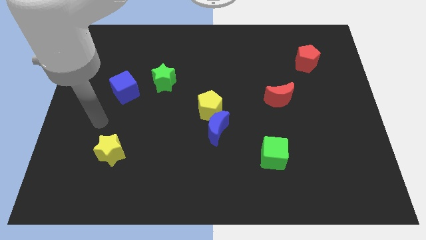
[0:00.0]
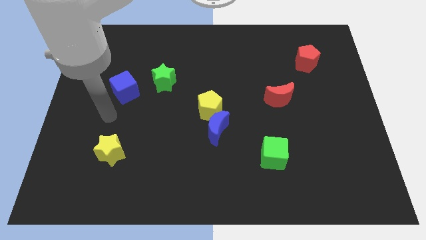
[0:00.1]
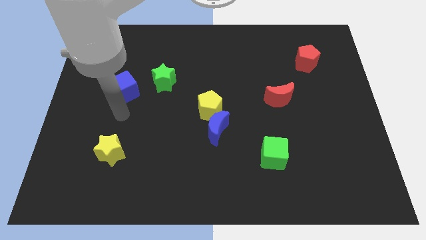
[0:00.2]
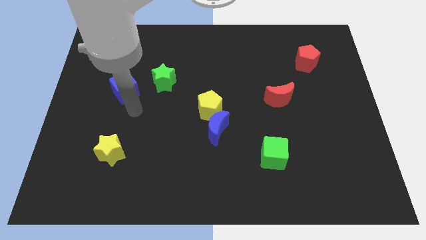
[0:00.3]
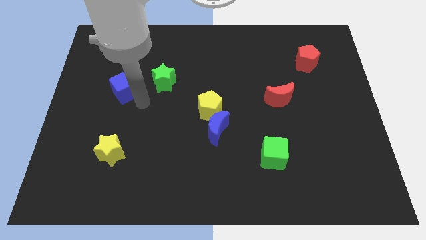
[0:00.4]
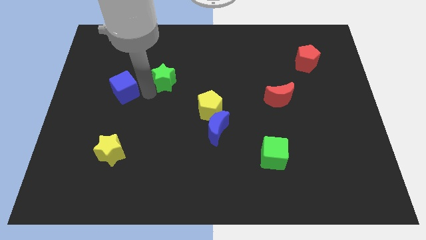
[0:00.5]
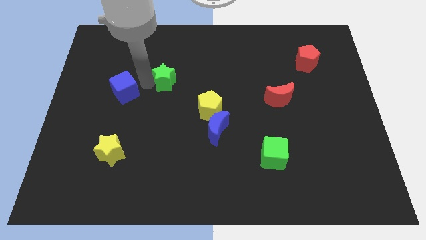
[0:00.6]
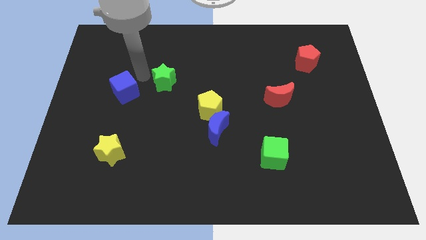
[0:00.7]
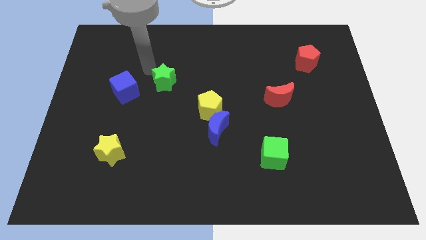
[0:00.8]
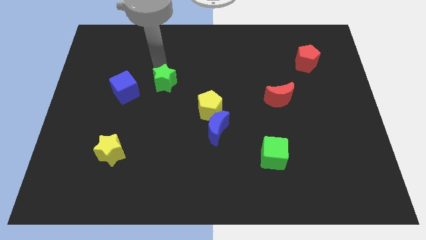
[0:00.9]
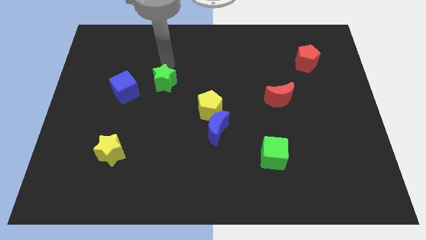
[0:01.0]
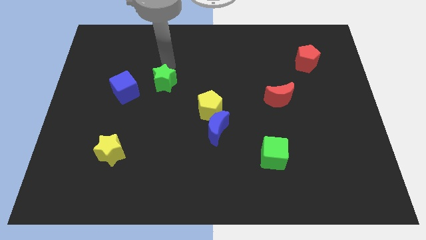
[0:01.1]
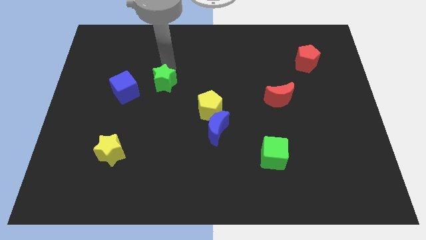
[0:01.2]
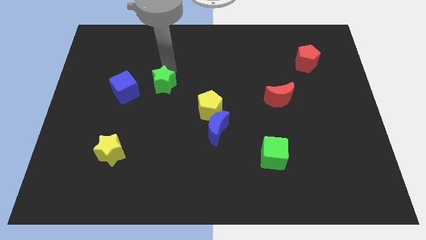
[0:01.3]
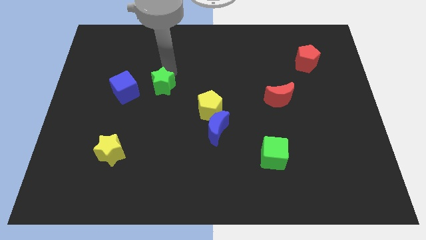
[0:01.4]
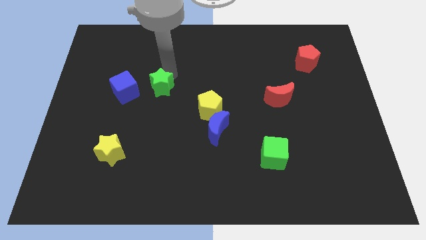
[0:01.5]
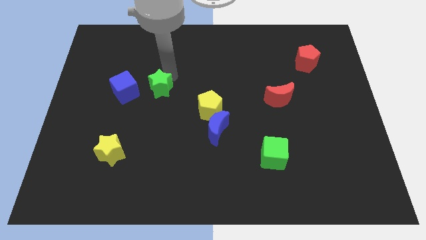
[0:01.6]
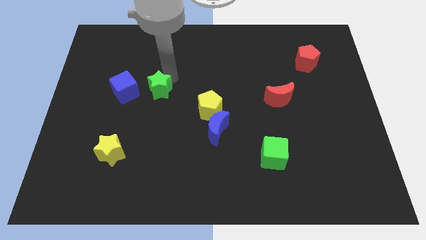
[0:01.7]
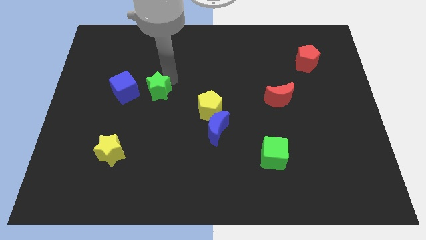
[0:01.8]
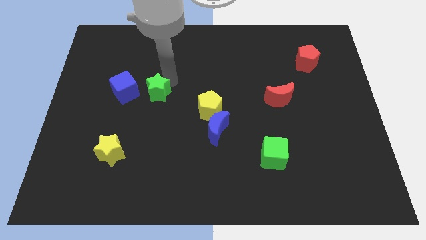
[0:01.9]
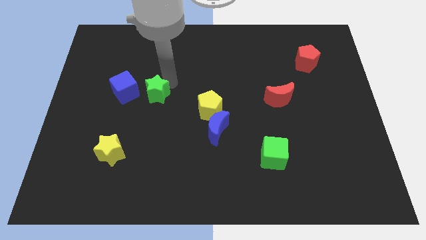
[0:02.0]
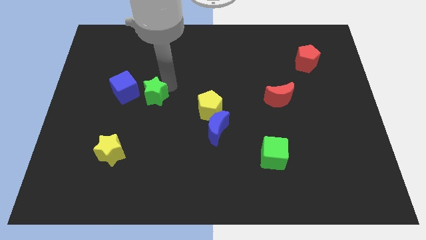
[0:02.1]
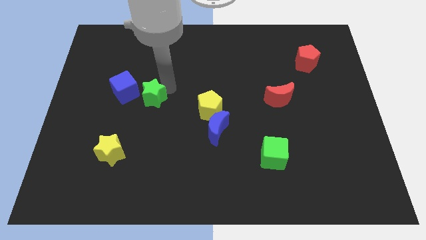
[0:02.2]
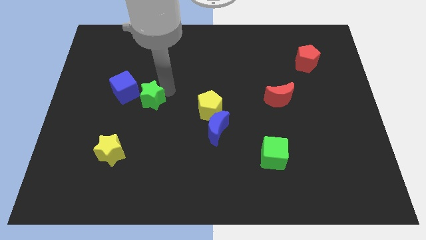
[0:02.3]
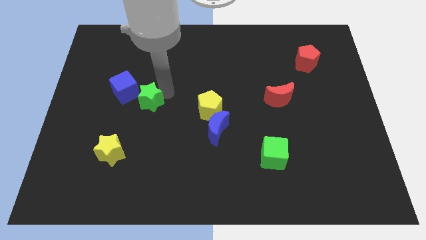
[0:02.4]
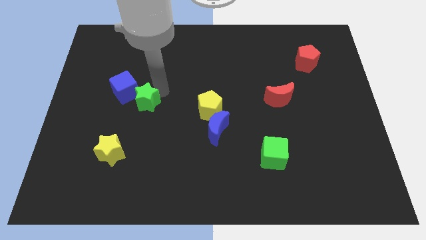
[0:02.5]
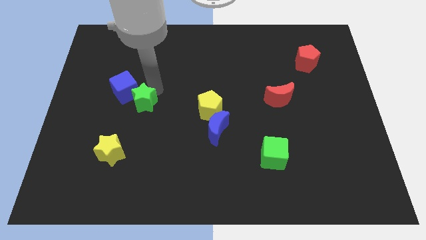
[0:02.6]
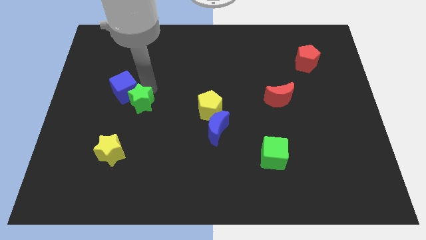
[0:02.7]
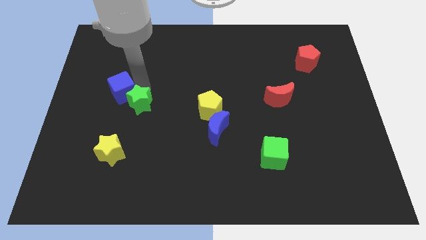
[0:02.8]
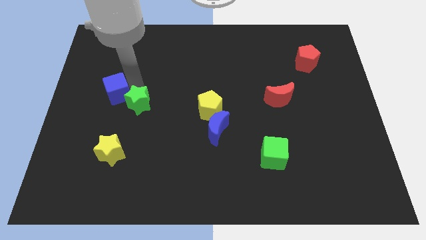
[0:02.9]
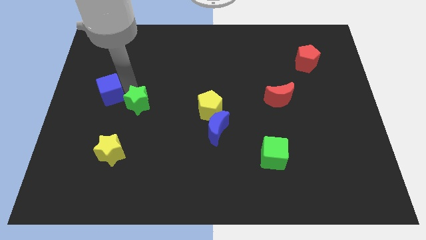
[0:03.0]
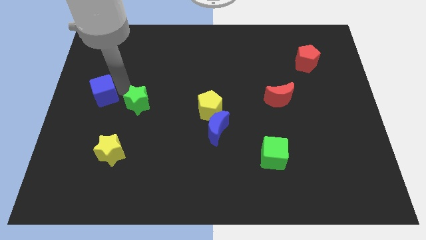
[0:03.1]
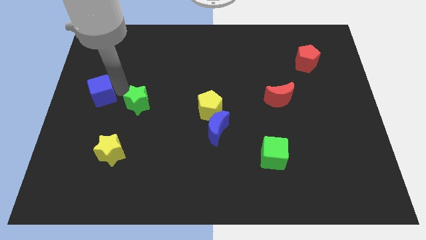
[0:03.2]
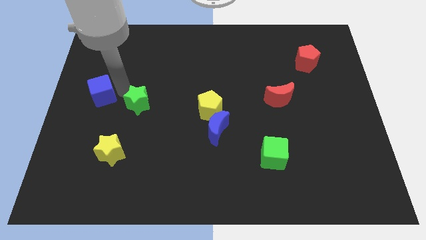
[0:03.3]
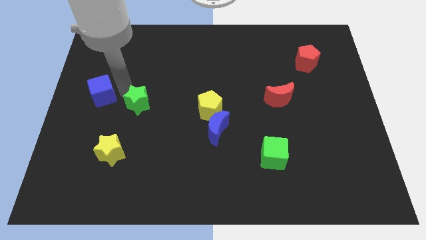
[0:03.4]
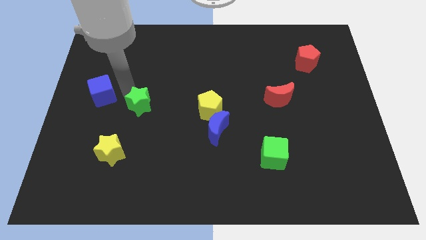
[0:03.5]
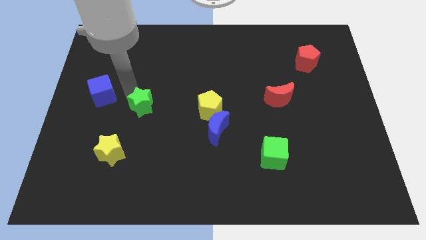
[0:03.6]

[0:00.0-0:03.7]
slide the green star a little bit down

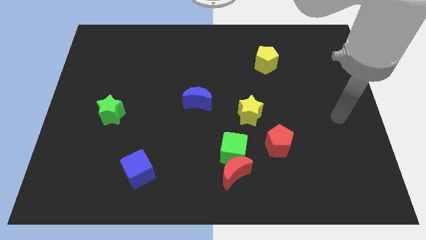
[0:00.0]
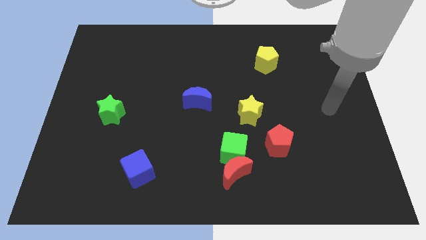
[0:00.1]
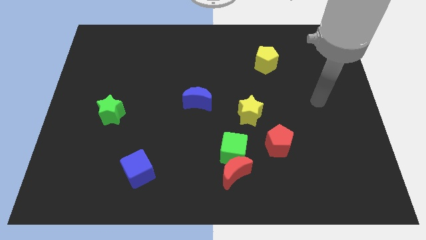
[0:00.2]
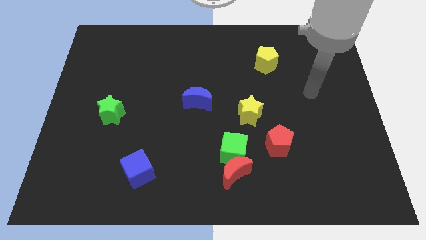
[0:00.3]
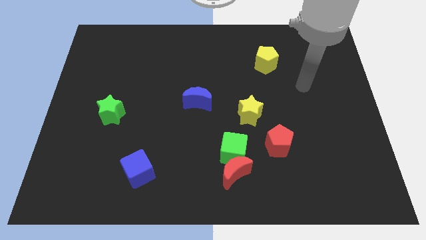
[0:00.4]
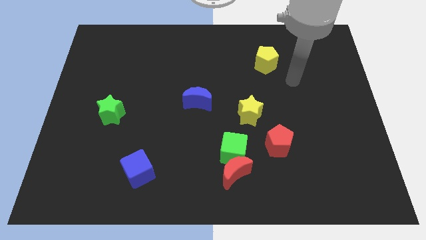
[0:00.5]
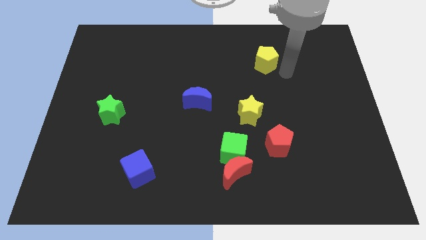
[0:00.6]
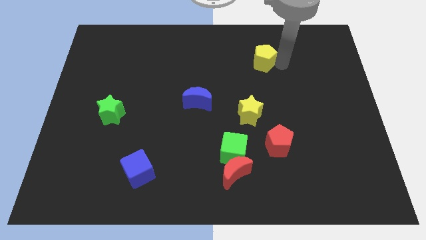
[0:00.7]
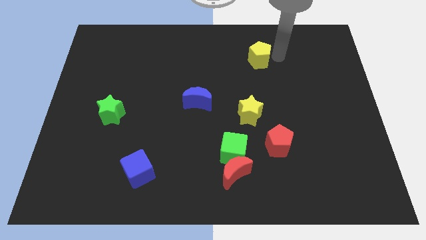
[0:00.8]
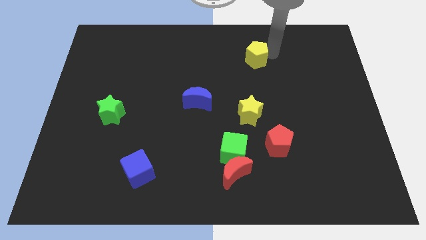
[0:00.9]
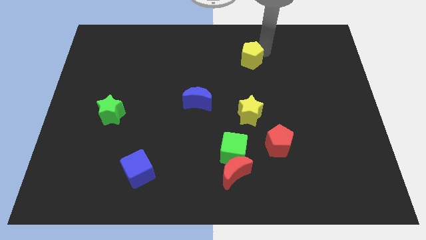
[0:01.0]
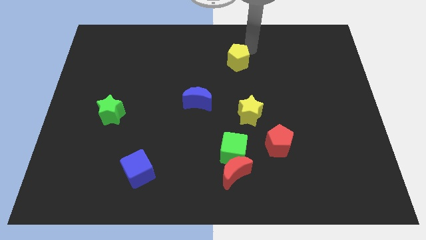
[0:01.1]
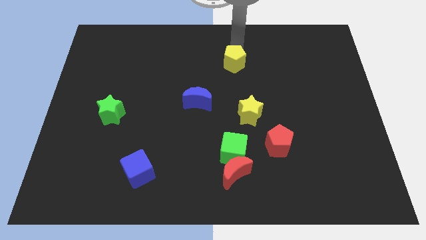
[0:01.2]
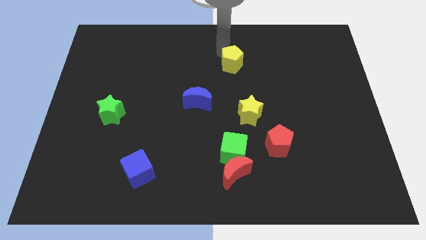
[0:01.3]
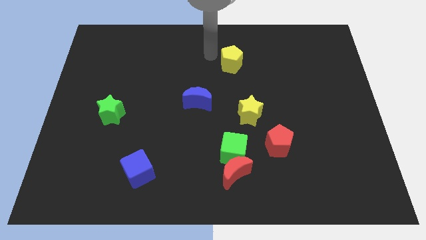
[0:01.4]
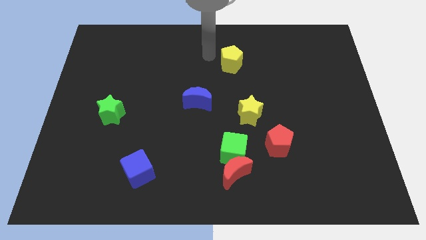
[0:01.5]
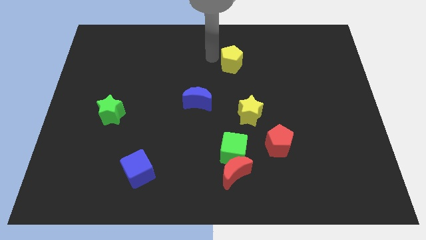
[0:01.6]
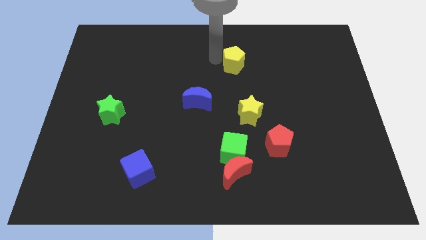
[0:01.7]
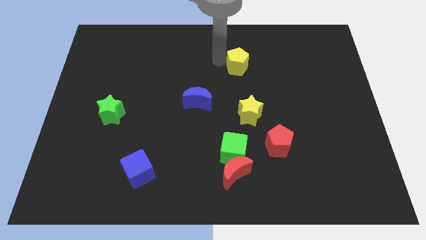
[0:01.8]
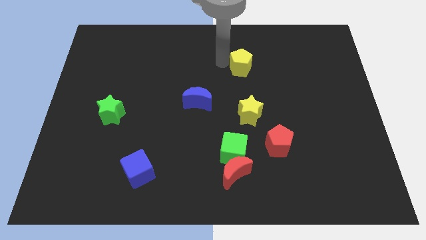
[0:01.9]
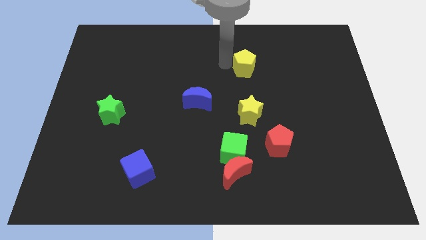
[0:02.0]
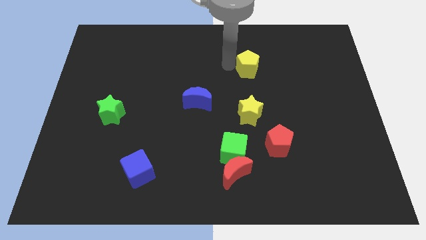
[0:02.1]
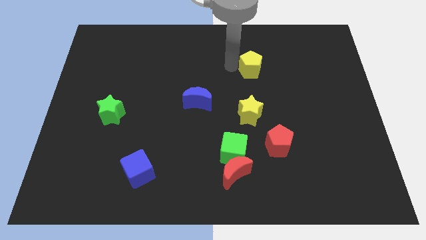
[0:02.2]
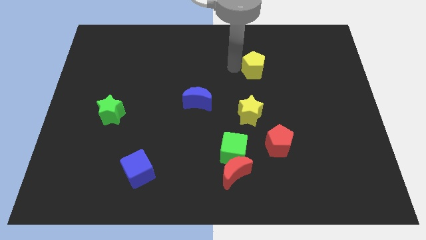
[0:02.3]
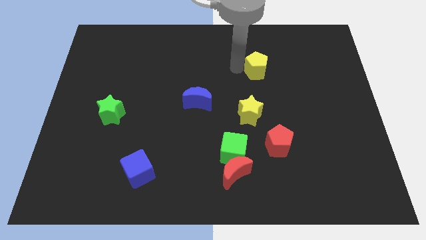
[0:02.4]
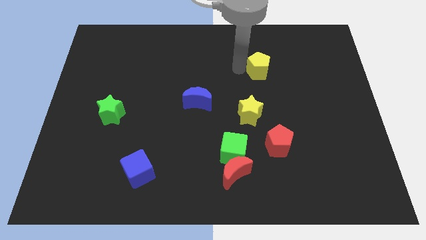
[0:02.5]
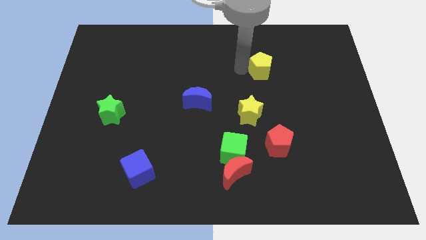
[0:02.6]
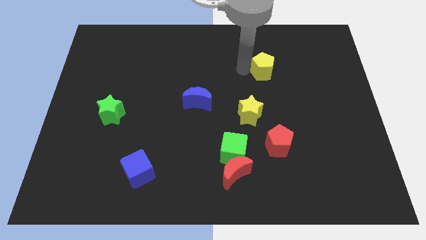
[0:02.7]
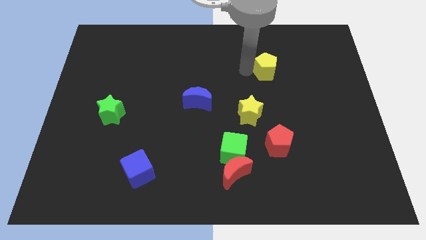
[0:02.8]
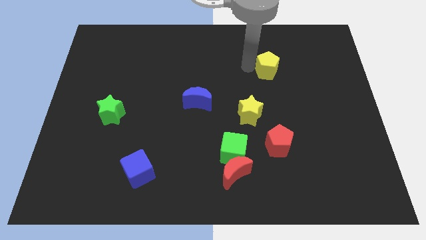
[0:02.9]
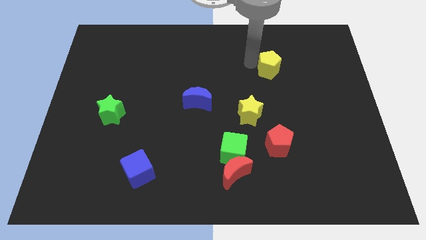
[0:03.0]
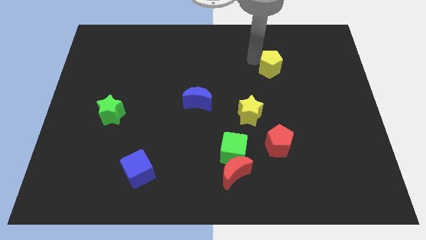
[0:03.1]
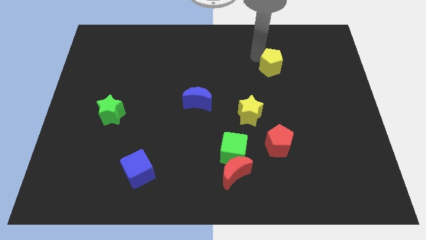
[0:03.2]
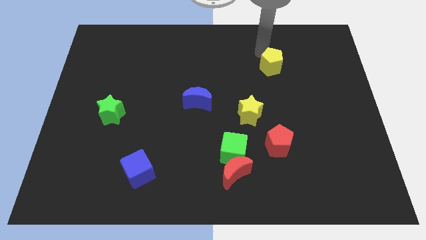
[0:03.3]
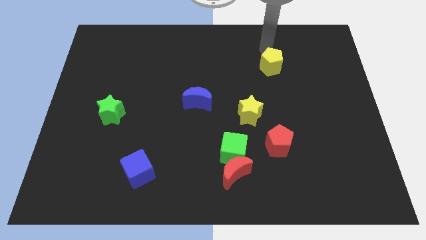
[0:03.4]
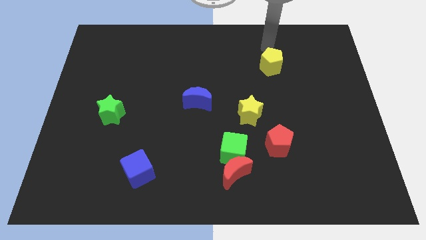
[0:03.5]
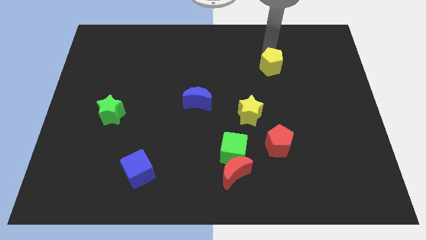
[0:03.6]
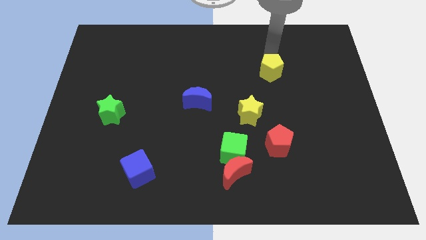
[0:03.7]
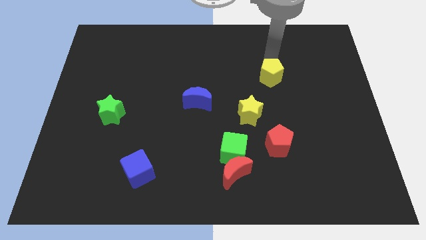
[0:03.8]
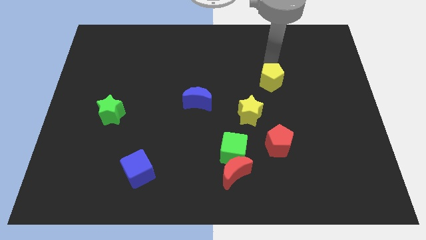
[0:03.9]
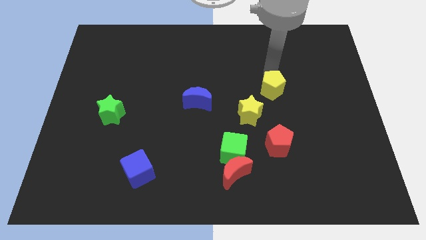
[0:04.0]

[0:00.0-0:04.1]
move the yellow pentagon a bit down

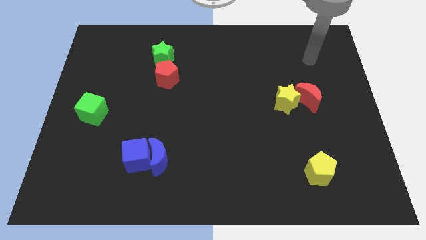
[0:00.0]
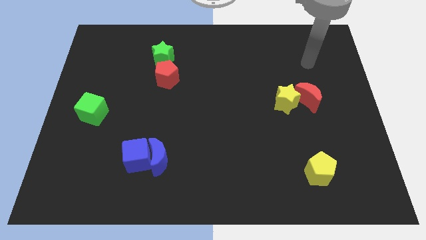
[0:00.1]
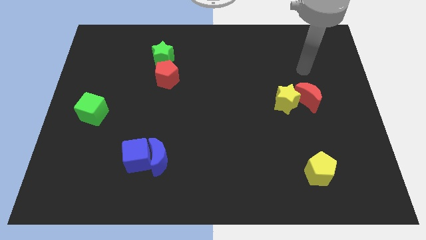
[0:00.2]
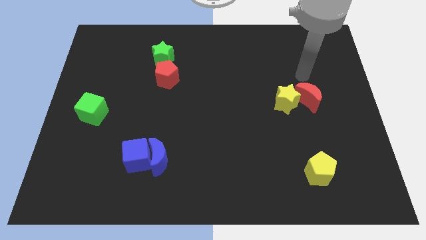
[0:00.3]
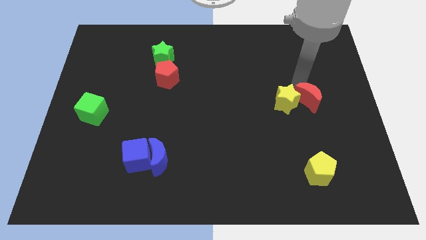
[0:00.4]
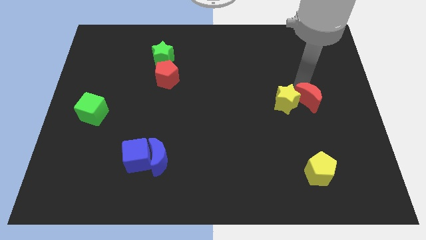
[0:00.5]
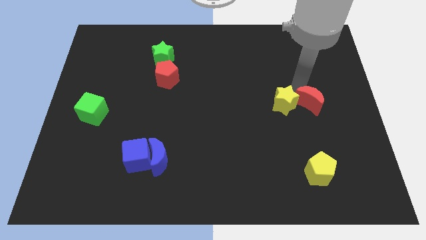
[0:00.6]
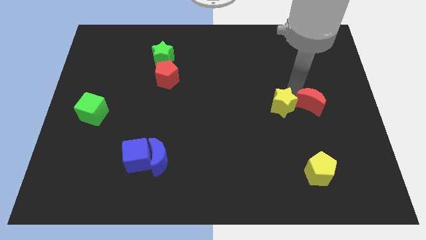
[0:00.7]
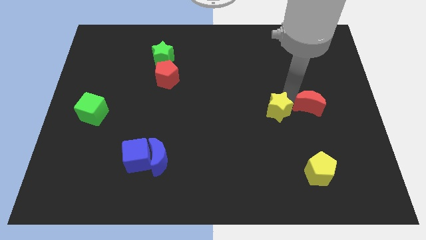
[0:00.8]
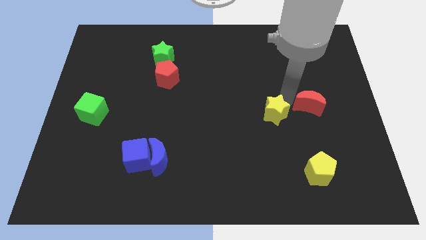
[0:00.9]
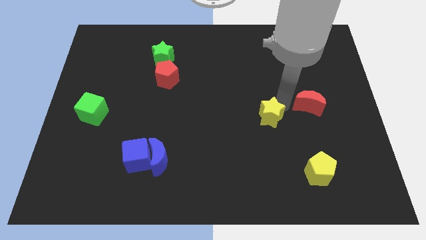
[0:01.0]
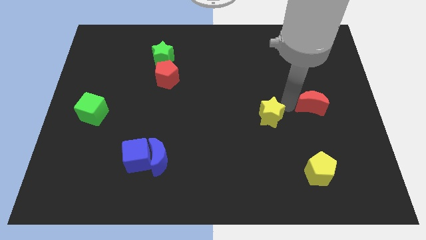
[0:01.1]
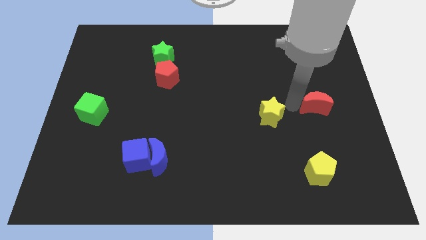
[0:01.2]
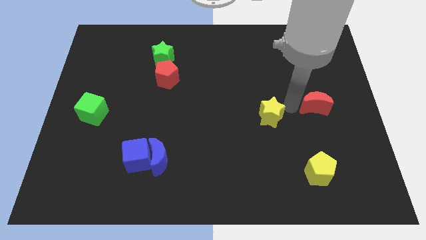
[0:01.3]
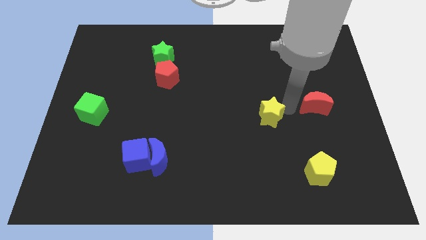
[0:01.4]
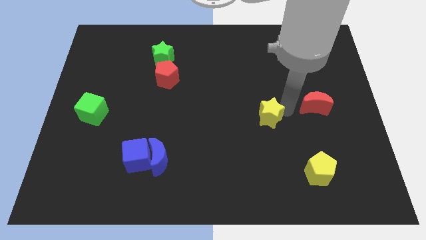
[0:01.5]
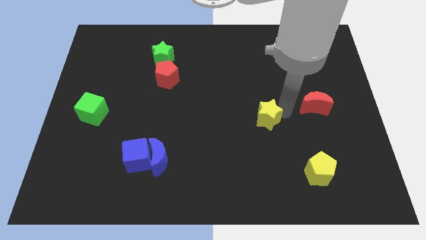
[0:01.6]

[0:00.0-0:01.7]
move the yellow star downwards and left diagonally somewhat
